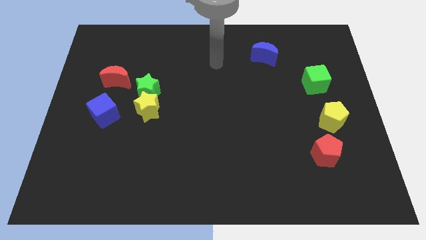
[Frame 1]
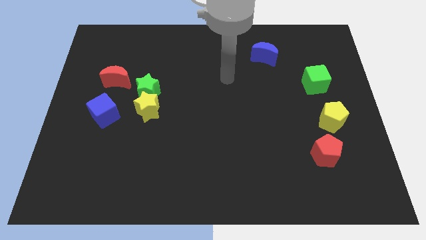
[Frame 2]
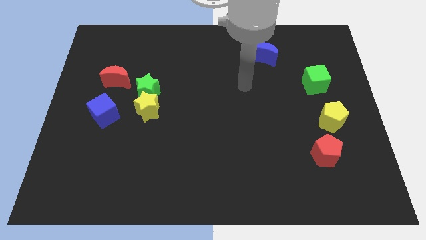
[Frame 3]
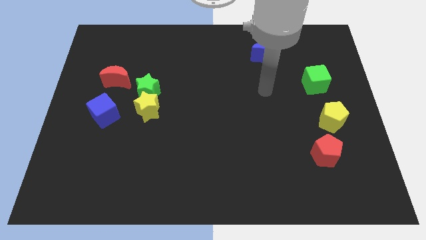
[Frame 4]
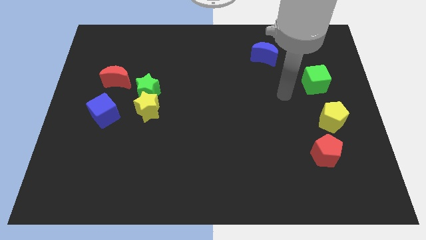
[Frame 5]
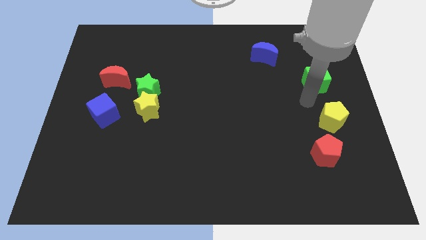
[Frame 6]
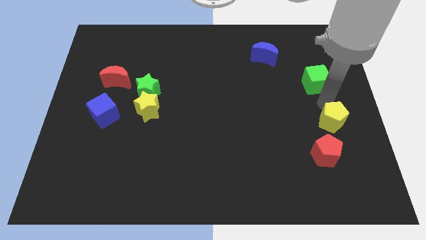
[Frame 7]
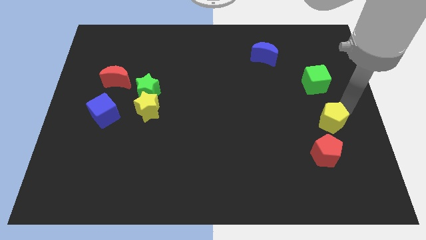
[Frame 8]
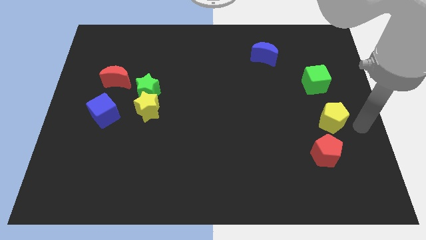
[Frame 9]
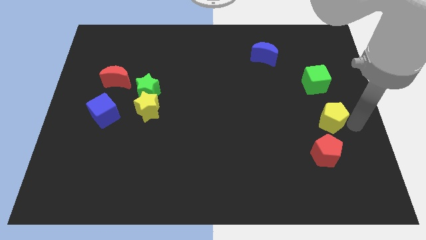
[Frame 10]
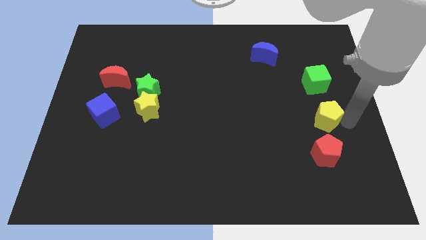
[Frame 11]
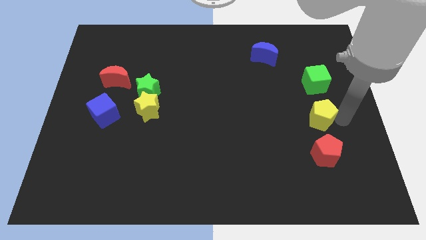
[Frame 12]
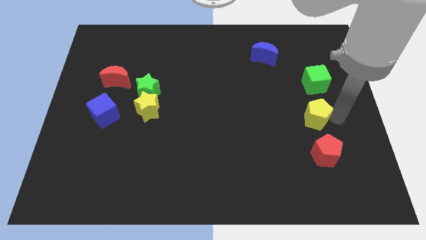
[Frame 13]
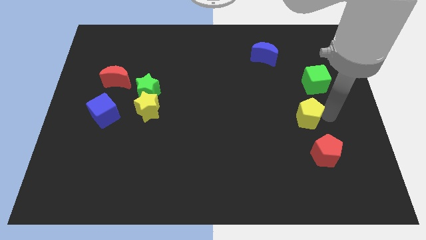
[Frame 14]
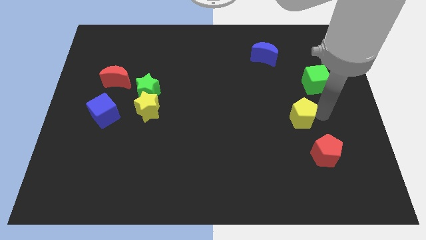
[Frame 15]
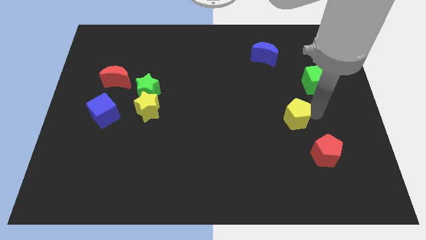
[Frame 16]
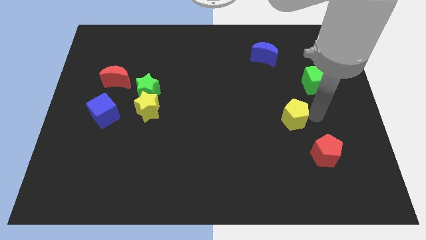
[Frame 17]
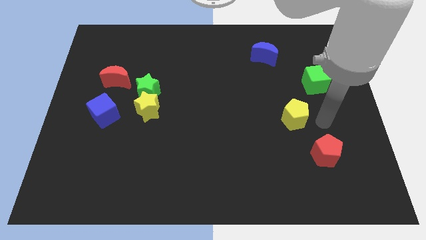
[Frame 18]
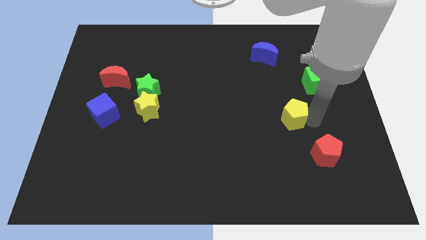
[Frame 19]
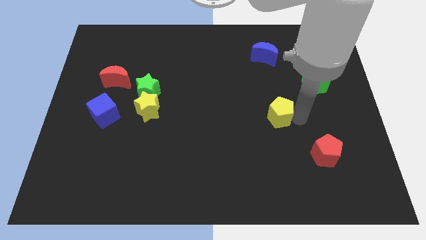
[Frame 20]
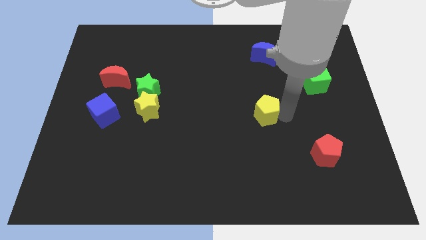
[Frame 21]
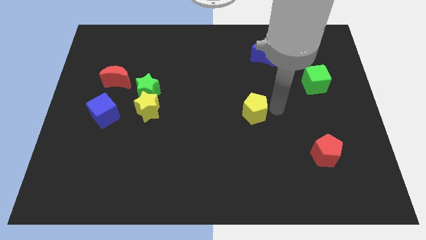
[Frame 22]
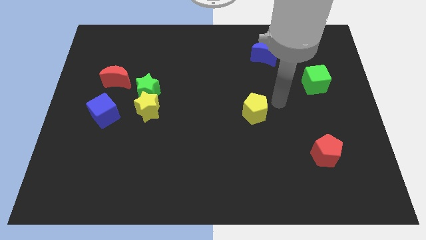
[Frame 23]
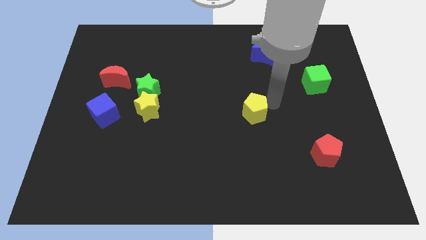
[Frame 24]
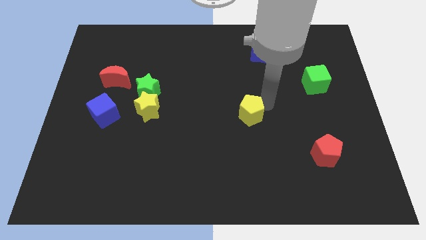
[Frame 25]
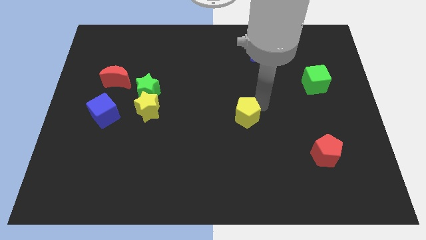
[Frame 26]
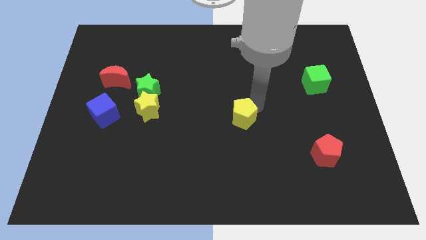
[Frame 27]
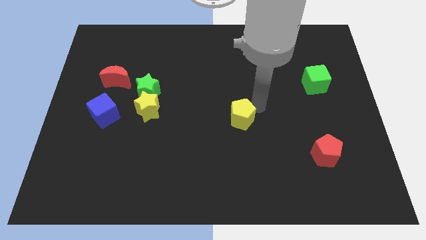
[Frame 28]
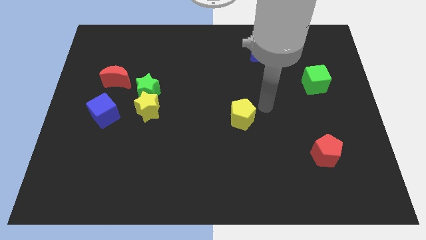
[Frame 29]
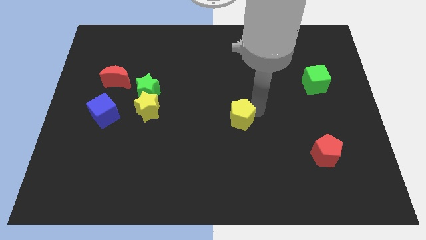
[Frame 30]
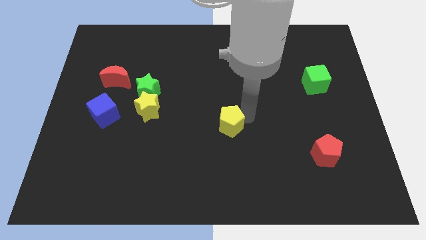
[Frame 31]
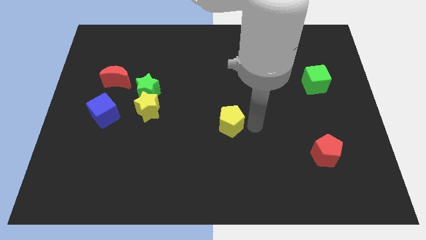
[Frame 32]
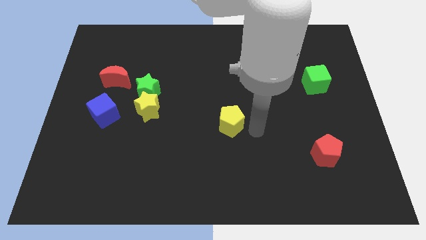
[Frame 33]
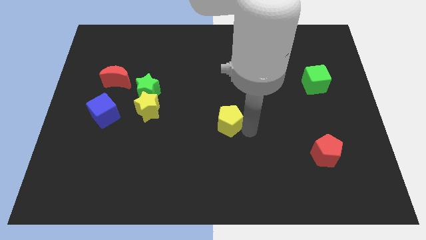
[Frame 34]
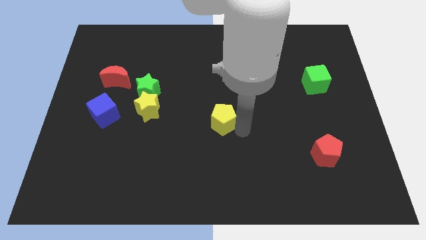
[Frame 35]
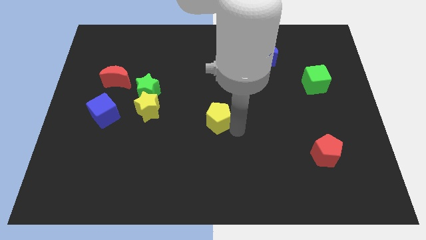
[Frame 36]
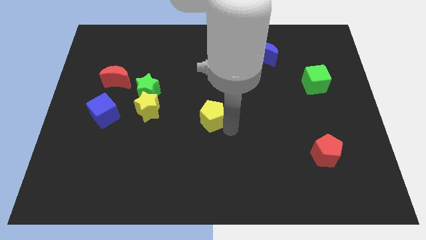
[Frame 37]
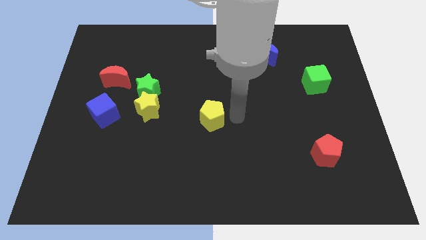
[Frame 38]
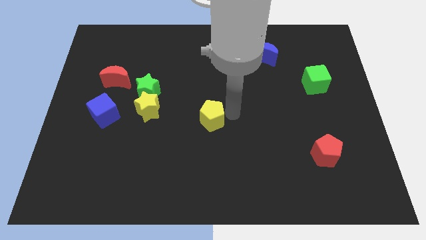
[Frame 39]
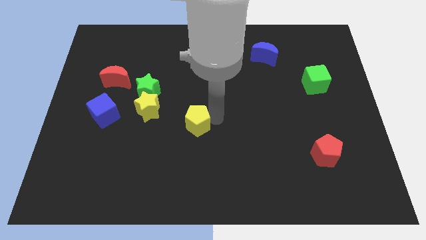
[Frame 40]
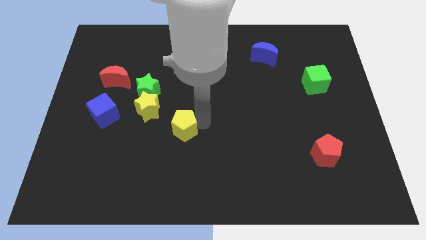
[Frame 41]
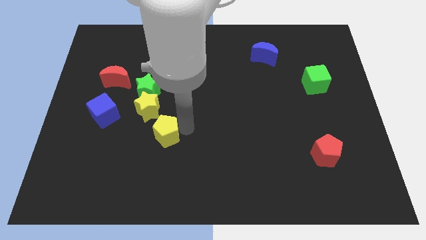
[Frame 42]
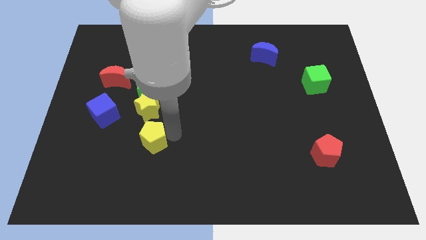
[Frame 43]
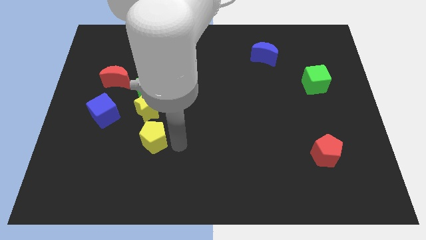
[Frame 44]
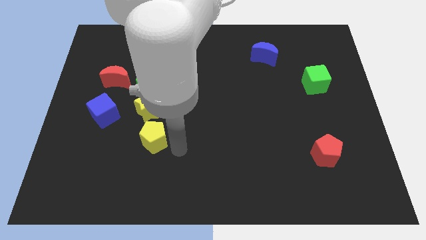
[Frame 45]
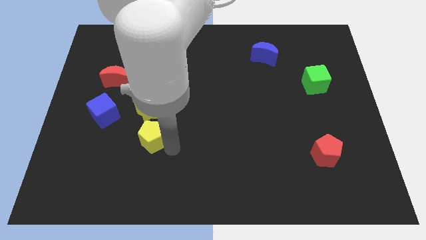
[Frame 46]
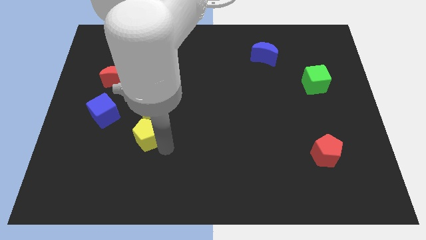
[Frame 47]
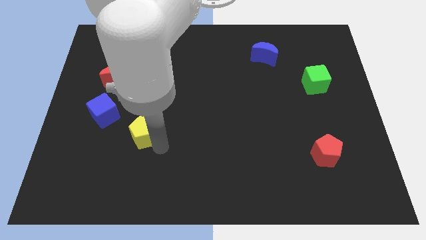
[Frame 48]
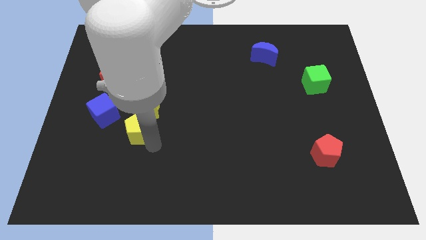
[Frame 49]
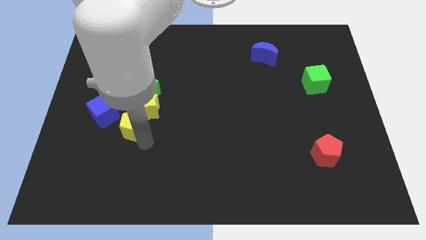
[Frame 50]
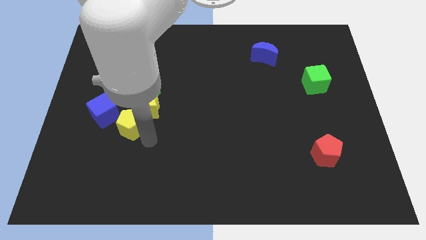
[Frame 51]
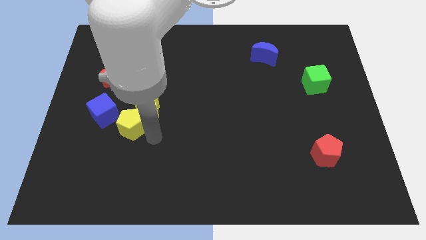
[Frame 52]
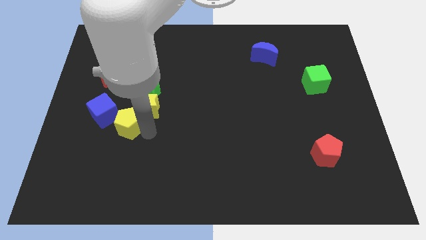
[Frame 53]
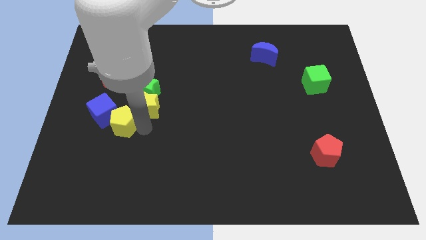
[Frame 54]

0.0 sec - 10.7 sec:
put the yellow pentagon close to the blue cube

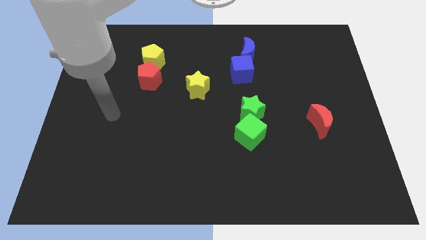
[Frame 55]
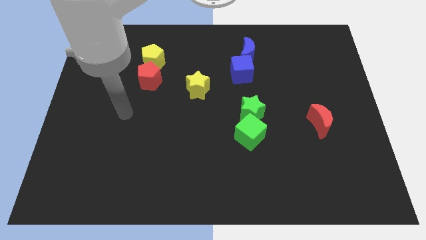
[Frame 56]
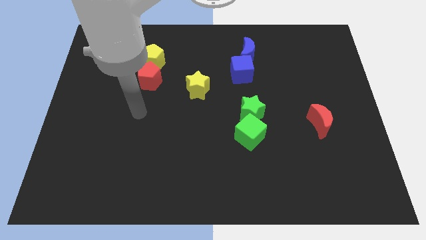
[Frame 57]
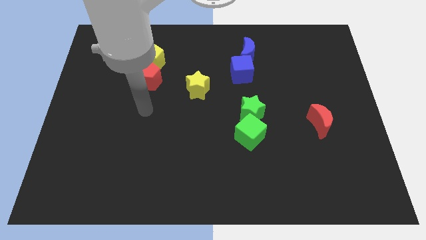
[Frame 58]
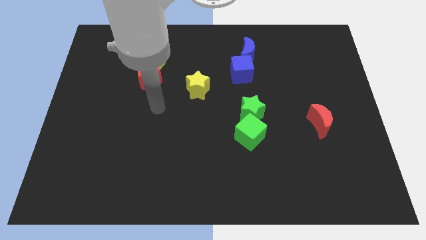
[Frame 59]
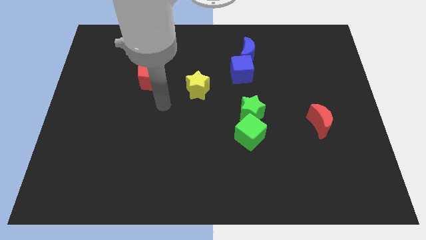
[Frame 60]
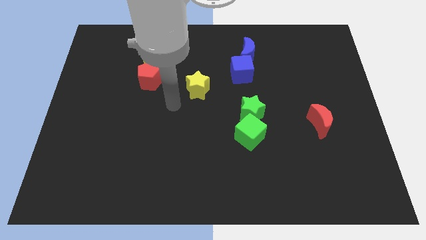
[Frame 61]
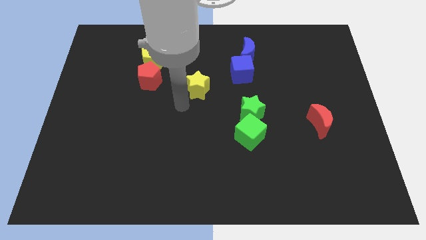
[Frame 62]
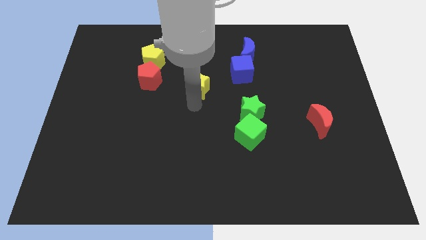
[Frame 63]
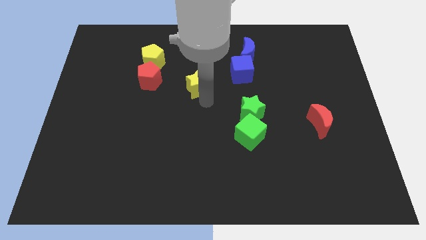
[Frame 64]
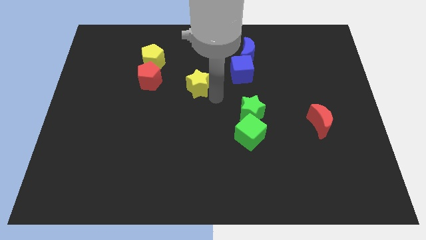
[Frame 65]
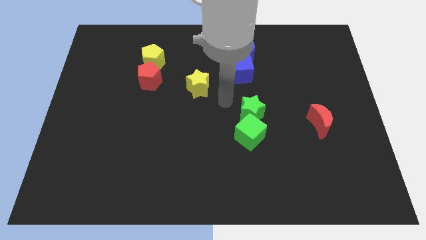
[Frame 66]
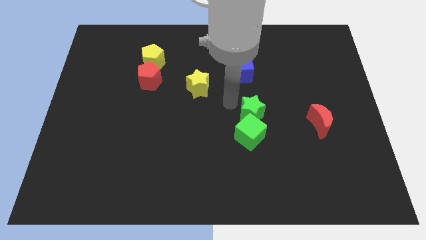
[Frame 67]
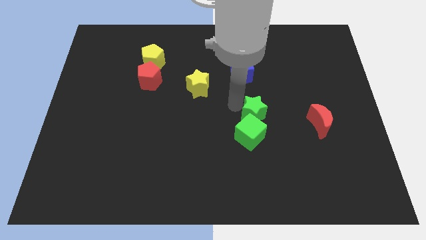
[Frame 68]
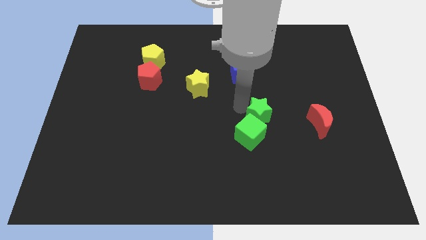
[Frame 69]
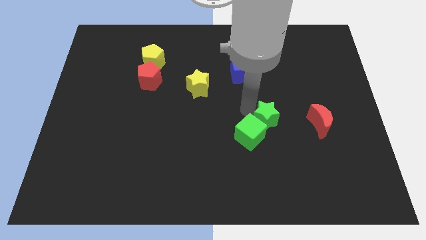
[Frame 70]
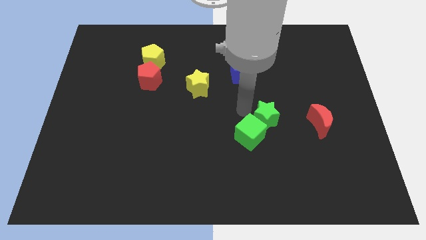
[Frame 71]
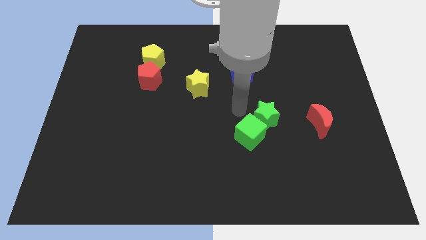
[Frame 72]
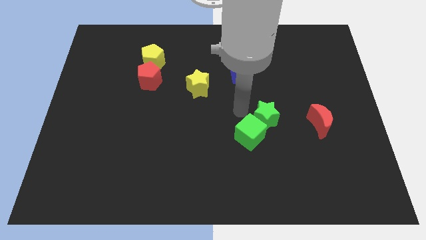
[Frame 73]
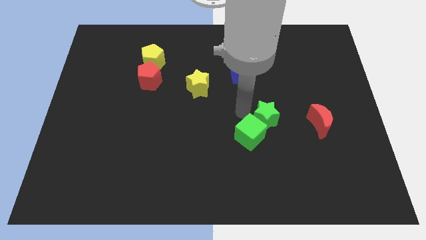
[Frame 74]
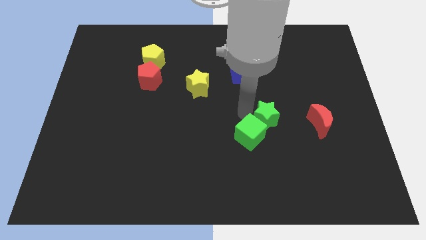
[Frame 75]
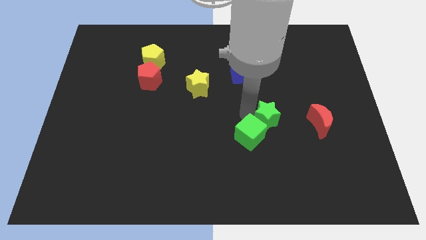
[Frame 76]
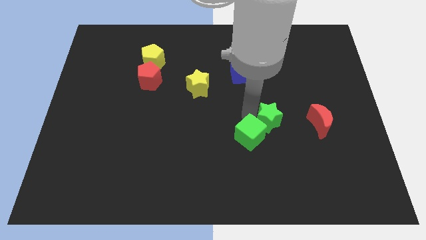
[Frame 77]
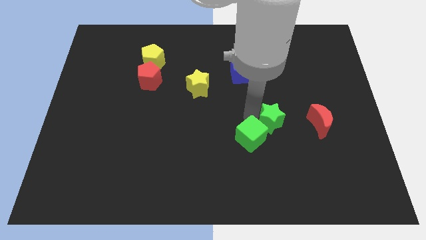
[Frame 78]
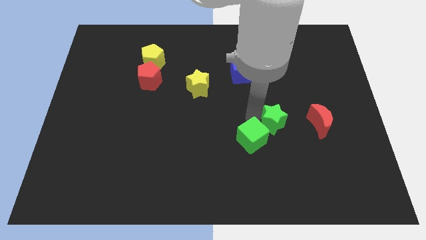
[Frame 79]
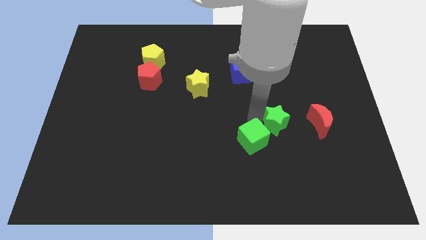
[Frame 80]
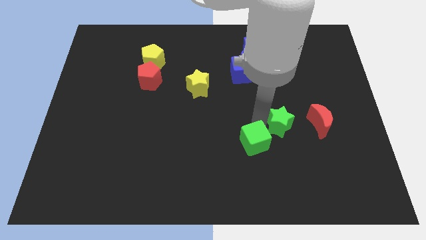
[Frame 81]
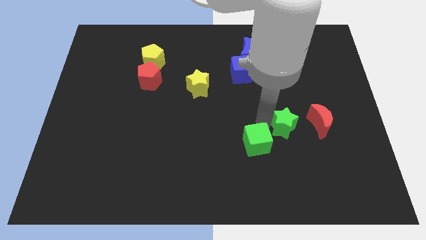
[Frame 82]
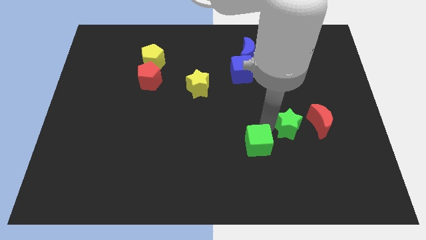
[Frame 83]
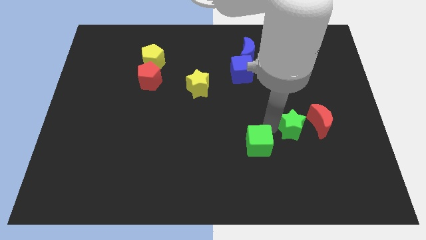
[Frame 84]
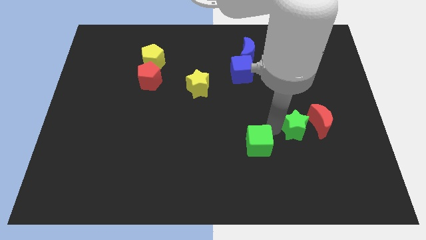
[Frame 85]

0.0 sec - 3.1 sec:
push the green star to the red moon
